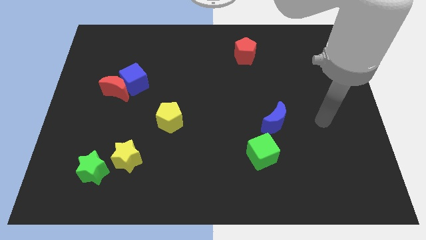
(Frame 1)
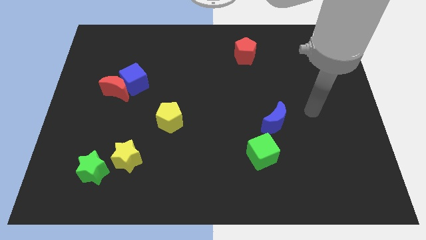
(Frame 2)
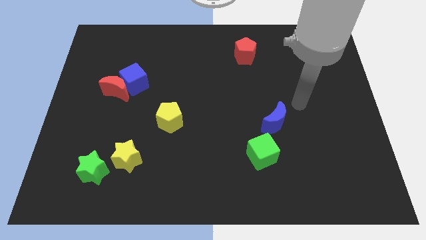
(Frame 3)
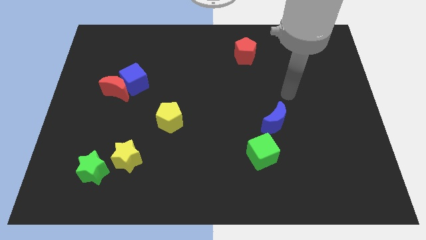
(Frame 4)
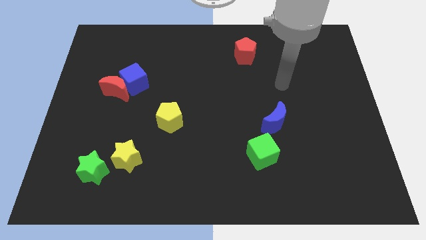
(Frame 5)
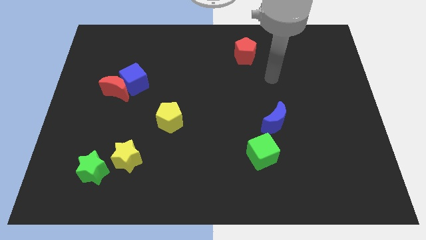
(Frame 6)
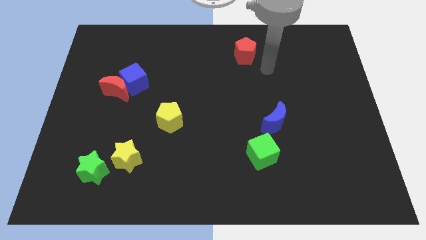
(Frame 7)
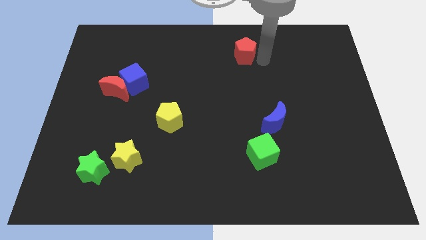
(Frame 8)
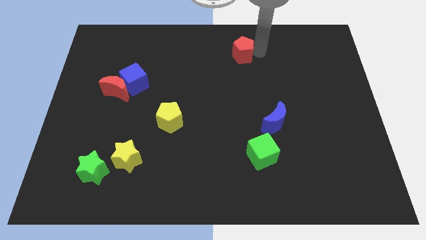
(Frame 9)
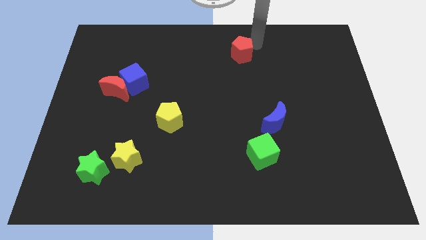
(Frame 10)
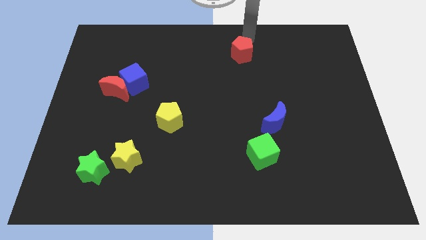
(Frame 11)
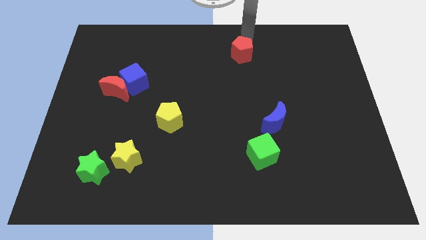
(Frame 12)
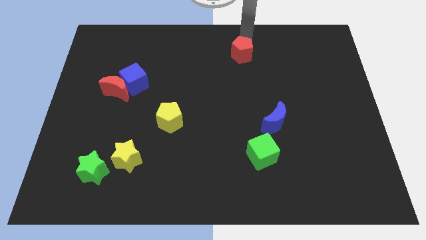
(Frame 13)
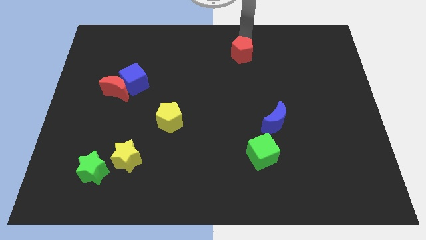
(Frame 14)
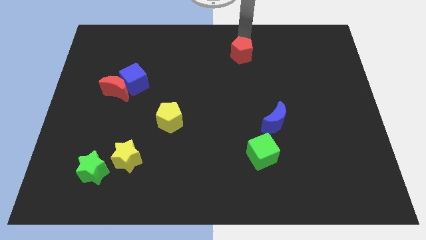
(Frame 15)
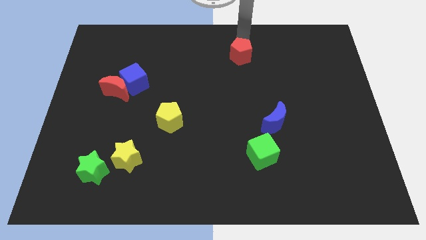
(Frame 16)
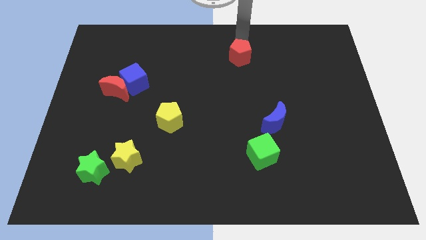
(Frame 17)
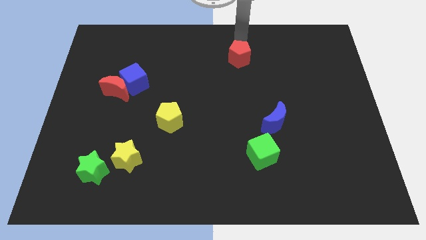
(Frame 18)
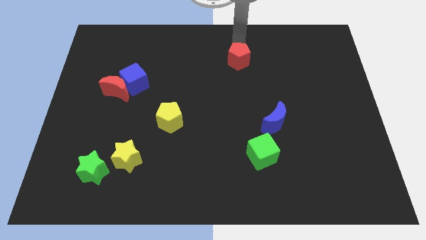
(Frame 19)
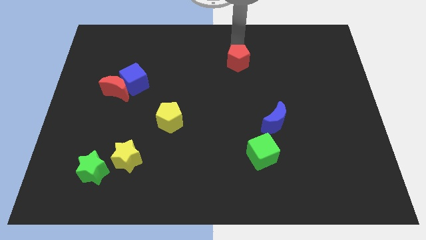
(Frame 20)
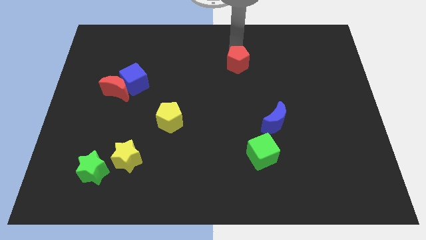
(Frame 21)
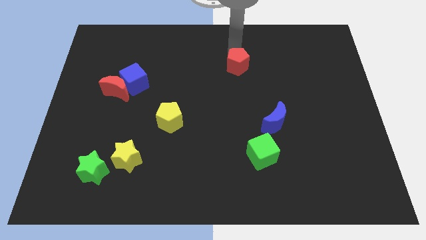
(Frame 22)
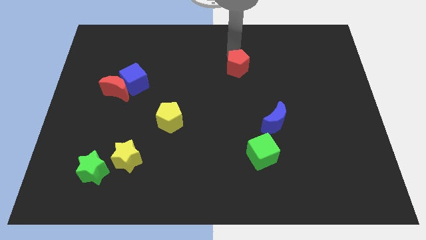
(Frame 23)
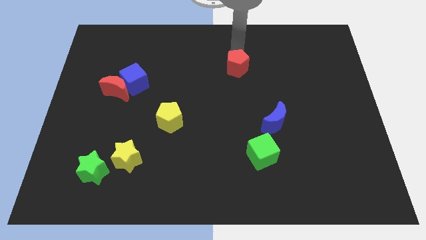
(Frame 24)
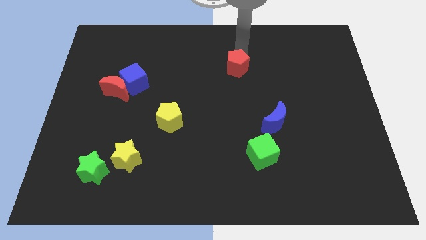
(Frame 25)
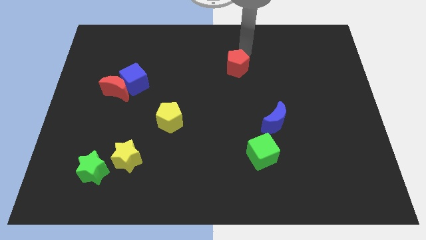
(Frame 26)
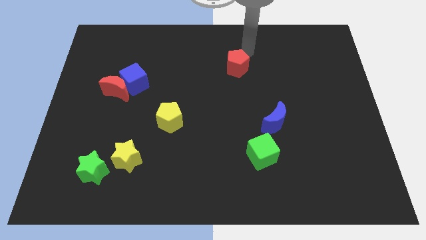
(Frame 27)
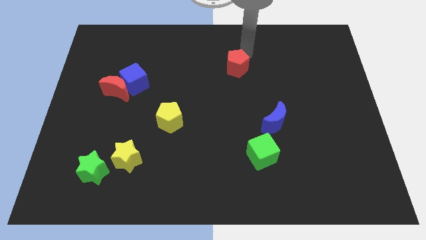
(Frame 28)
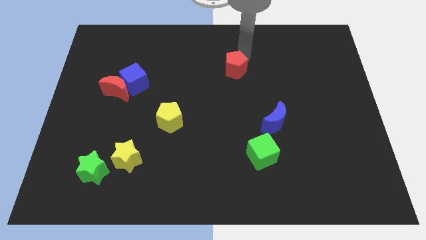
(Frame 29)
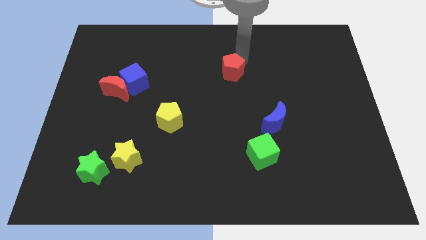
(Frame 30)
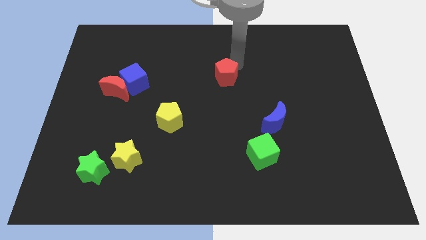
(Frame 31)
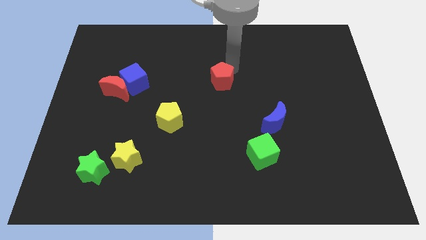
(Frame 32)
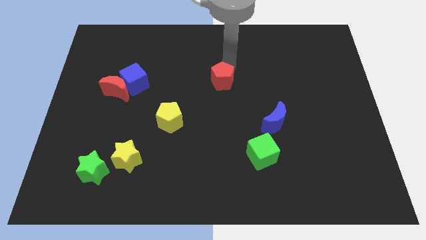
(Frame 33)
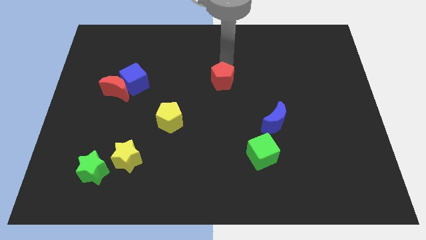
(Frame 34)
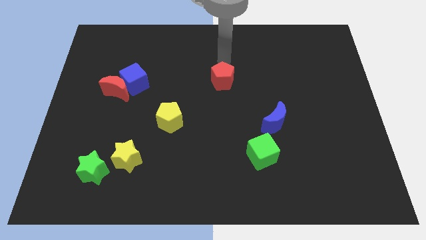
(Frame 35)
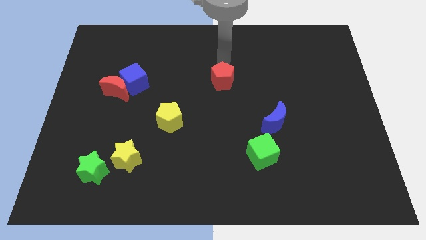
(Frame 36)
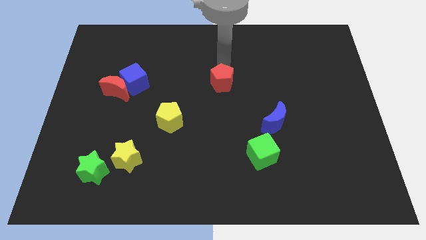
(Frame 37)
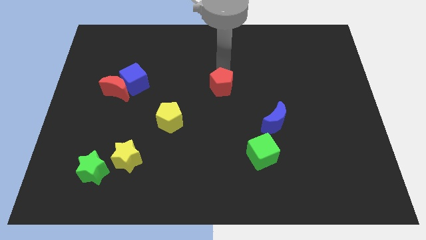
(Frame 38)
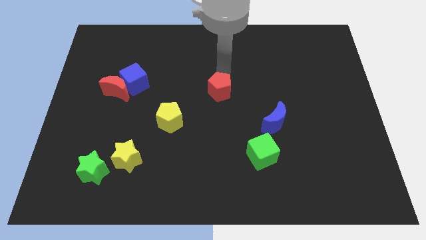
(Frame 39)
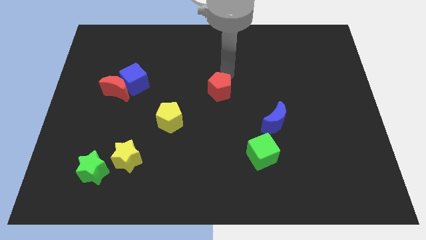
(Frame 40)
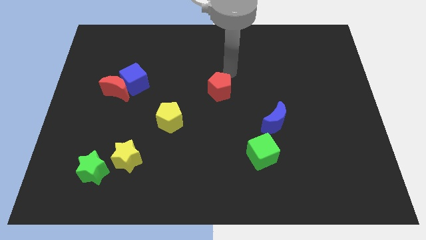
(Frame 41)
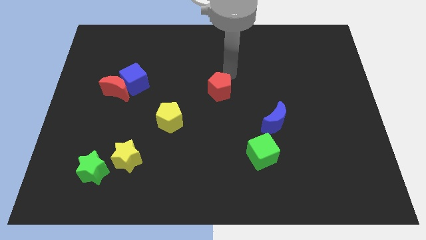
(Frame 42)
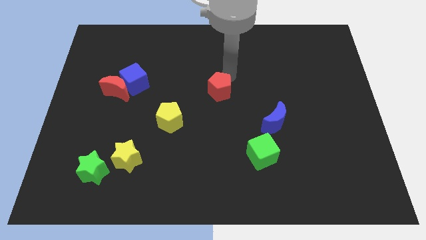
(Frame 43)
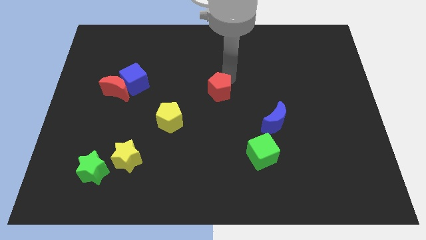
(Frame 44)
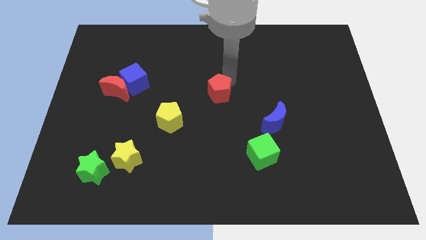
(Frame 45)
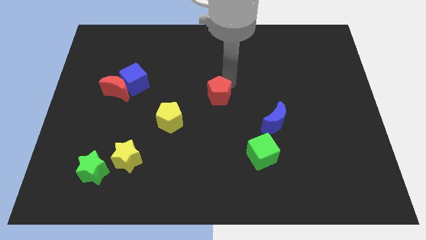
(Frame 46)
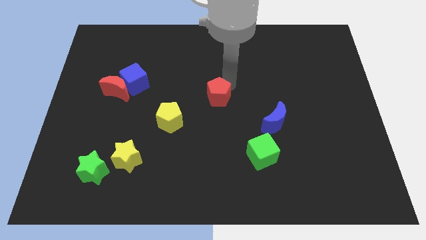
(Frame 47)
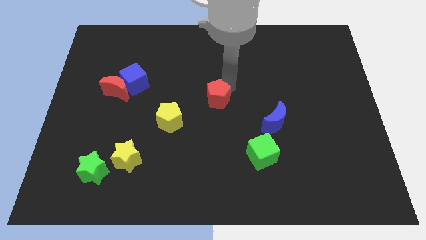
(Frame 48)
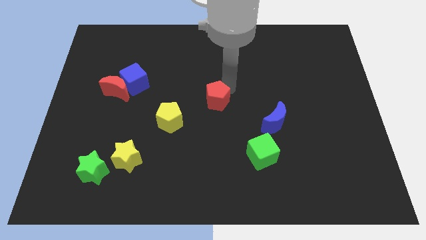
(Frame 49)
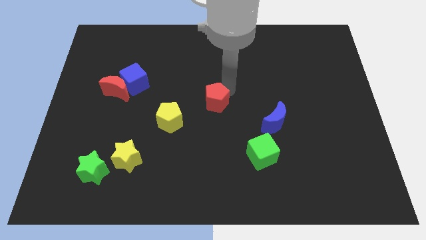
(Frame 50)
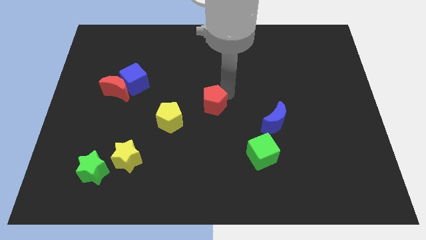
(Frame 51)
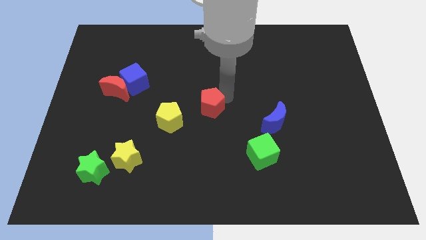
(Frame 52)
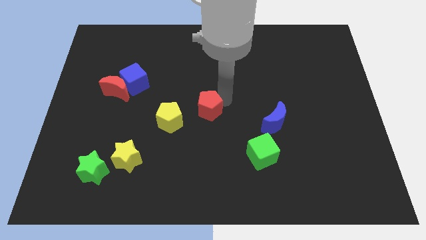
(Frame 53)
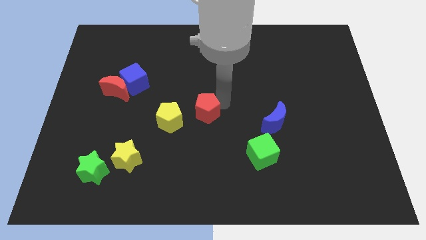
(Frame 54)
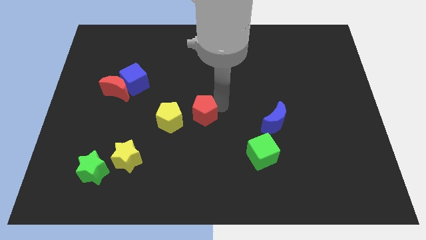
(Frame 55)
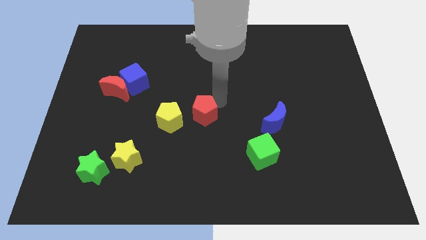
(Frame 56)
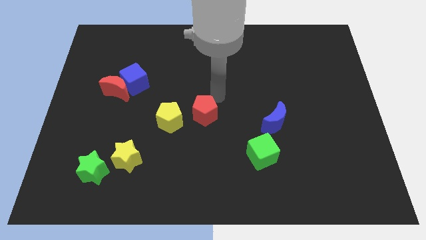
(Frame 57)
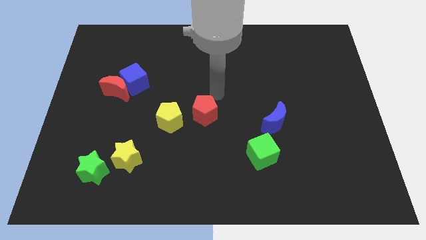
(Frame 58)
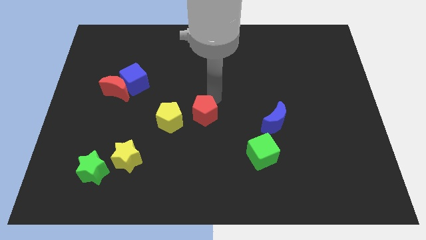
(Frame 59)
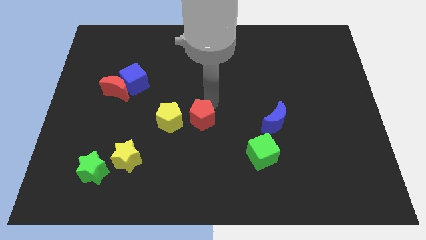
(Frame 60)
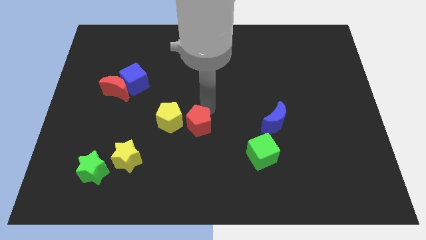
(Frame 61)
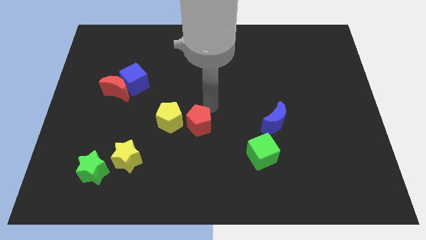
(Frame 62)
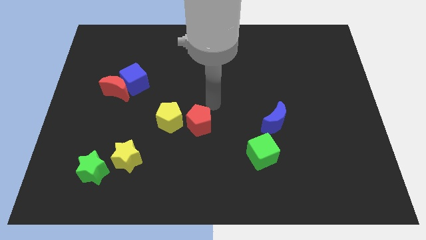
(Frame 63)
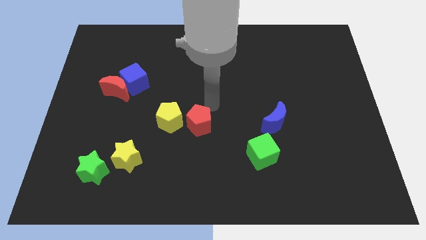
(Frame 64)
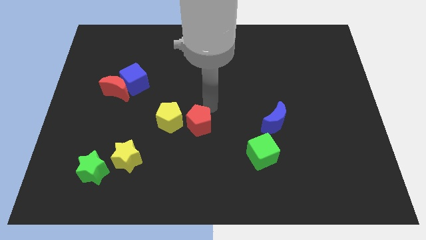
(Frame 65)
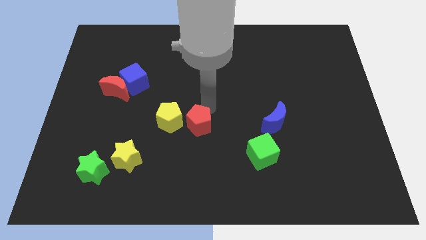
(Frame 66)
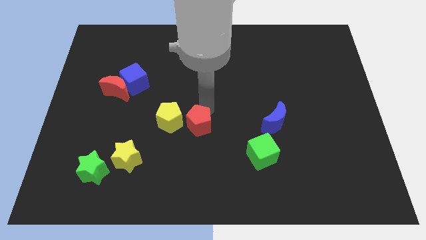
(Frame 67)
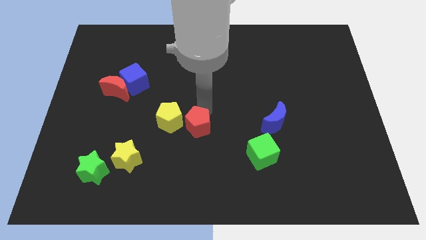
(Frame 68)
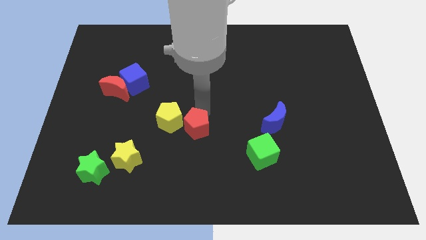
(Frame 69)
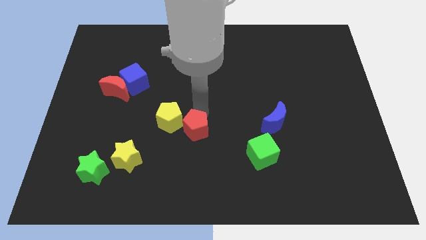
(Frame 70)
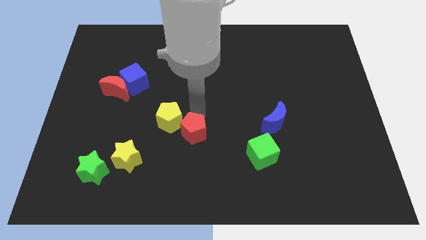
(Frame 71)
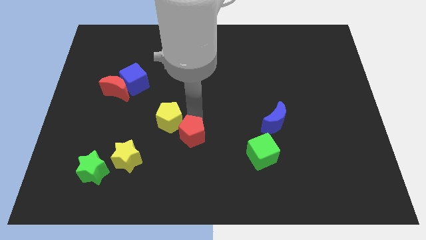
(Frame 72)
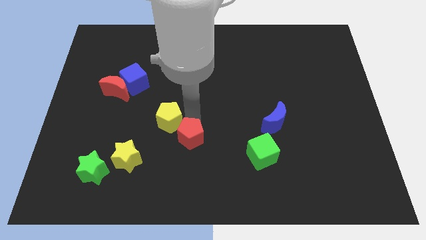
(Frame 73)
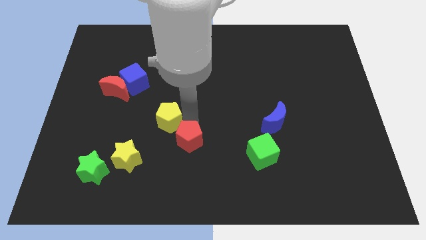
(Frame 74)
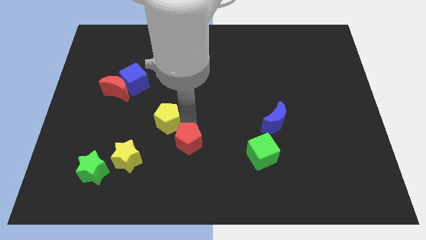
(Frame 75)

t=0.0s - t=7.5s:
push the red pentagon just right of the yellow star
